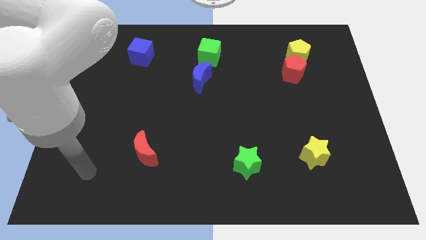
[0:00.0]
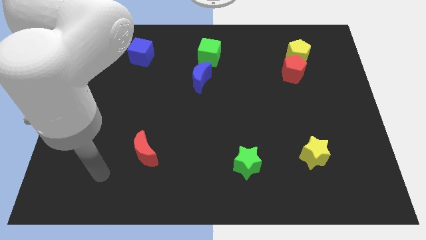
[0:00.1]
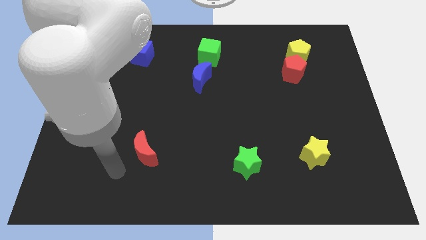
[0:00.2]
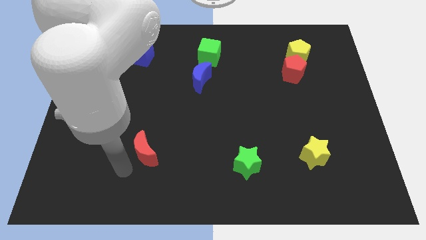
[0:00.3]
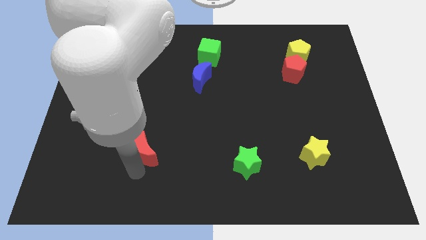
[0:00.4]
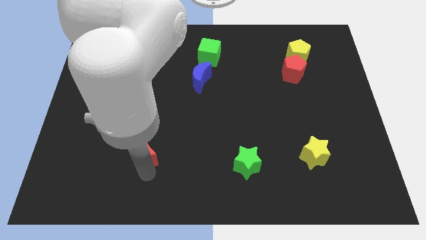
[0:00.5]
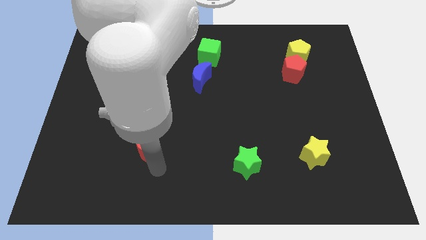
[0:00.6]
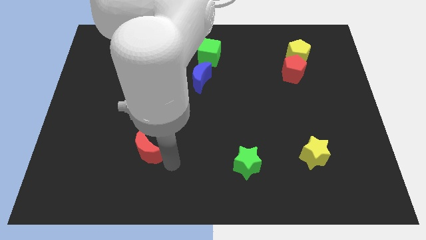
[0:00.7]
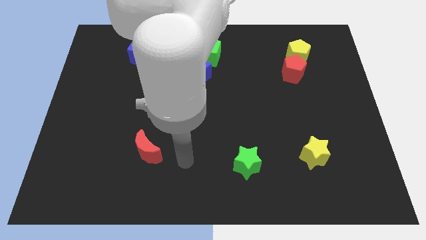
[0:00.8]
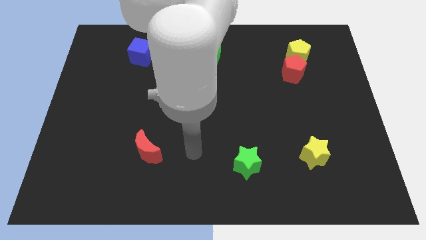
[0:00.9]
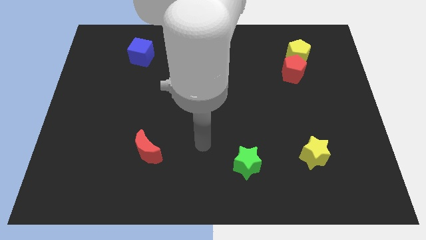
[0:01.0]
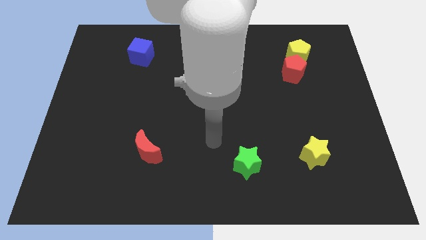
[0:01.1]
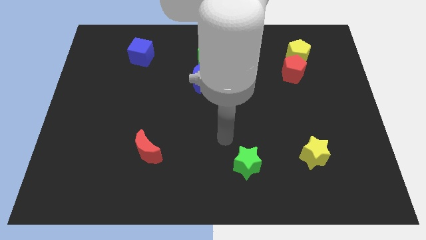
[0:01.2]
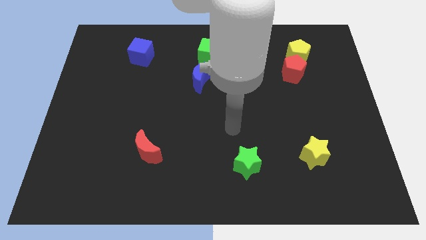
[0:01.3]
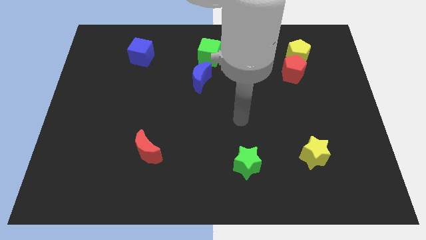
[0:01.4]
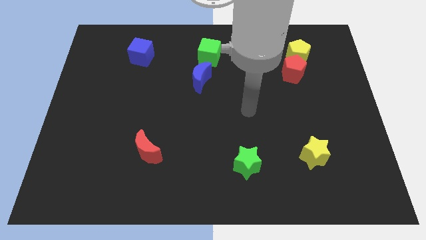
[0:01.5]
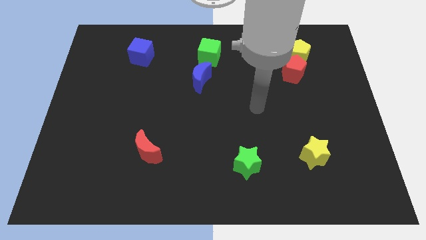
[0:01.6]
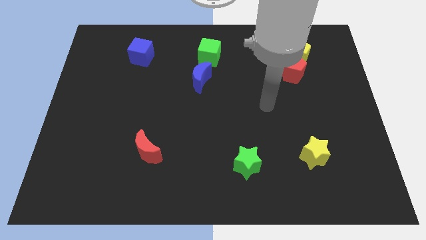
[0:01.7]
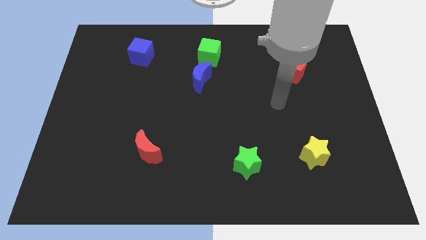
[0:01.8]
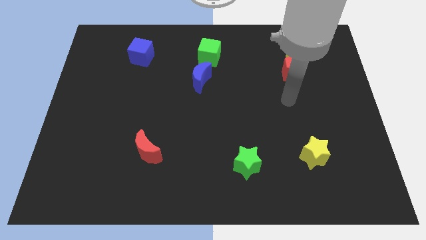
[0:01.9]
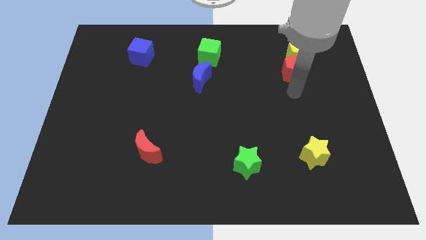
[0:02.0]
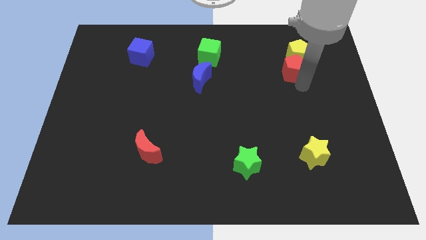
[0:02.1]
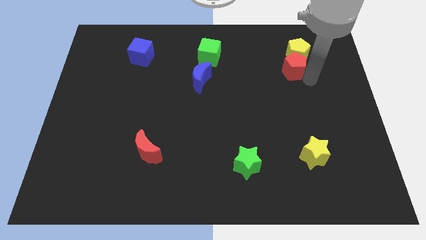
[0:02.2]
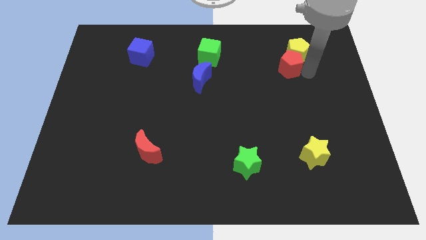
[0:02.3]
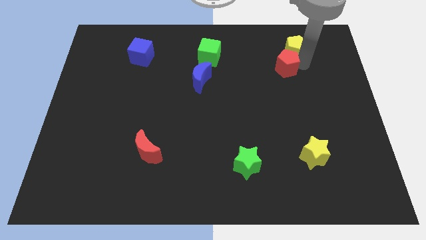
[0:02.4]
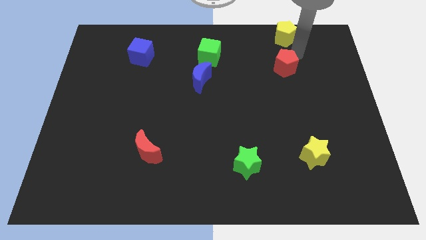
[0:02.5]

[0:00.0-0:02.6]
separate the red pentagon from the yellow pentagon

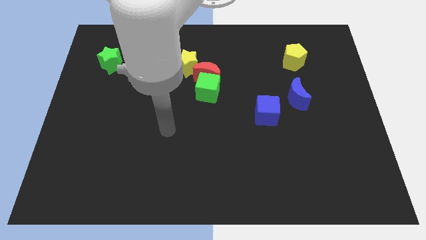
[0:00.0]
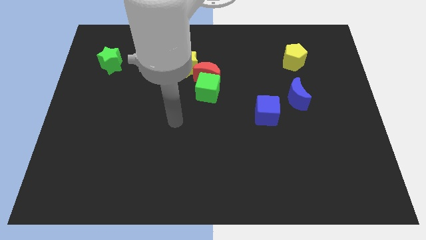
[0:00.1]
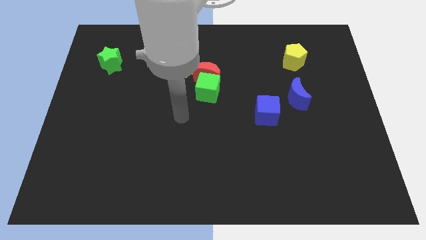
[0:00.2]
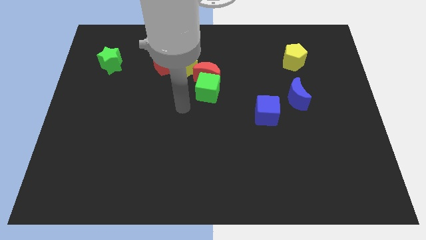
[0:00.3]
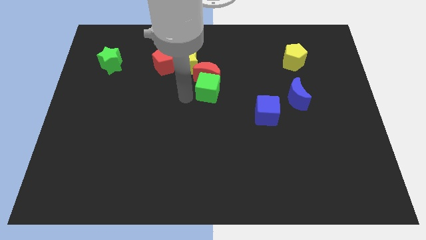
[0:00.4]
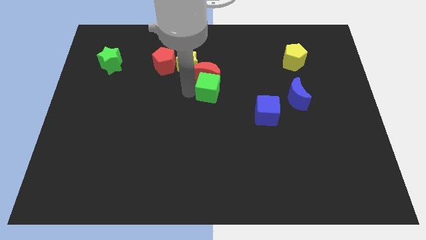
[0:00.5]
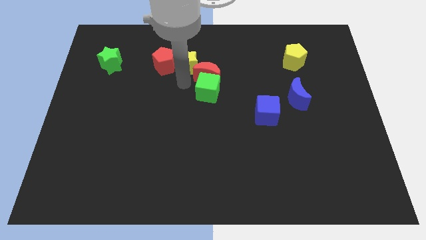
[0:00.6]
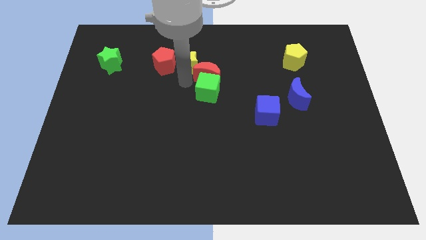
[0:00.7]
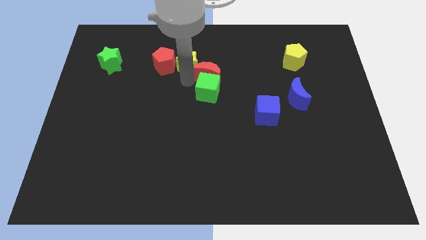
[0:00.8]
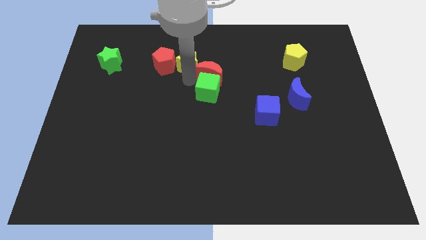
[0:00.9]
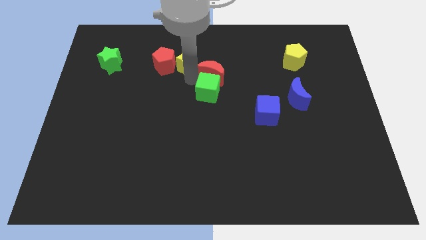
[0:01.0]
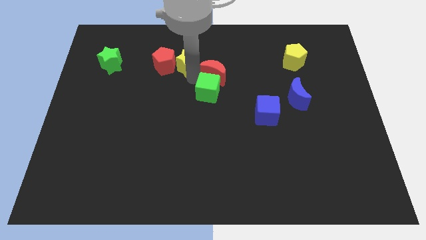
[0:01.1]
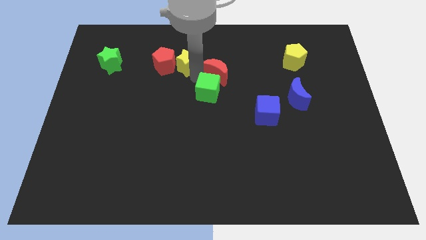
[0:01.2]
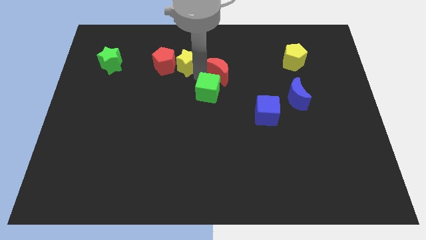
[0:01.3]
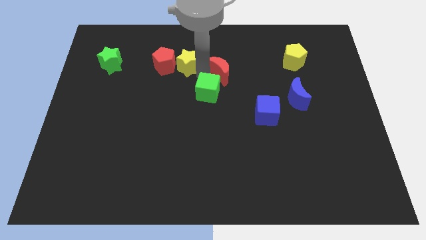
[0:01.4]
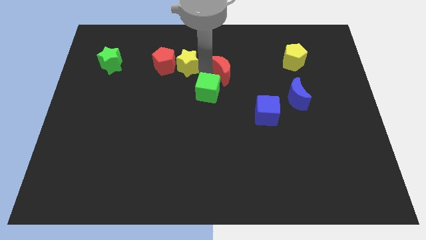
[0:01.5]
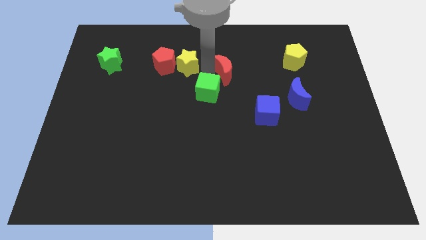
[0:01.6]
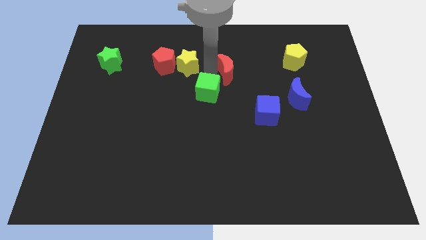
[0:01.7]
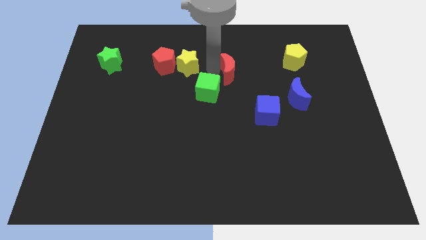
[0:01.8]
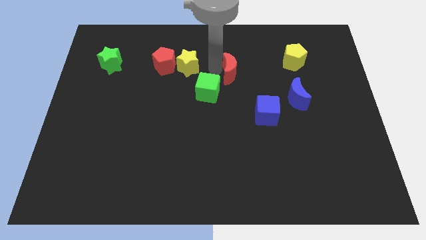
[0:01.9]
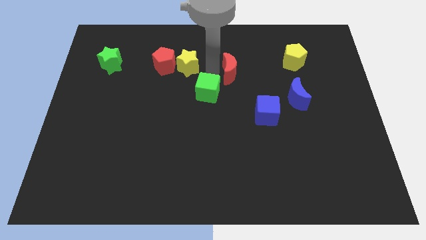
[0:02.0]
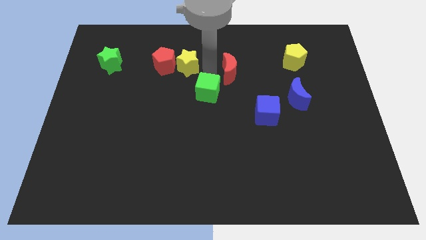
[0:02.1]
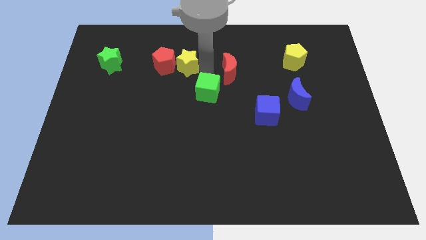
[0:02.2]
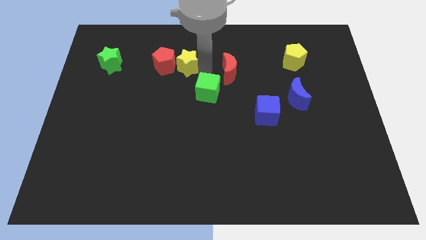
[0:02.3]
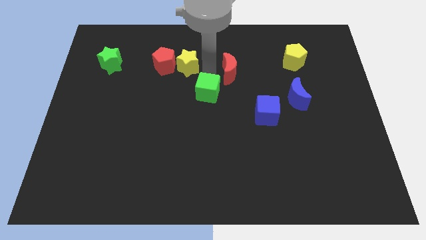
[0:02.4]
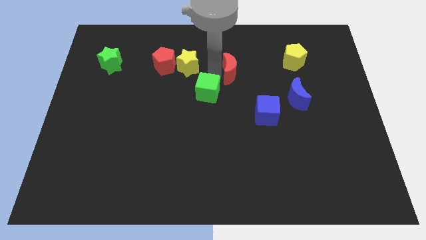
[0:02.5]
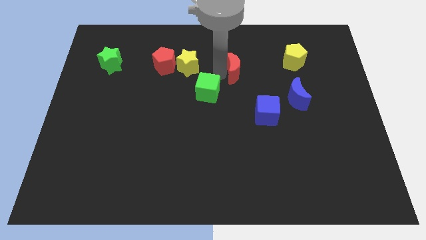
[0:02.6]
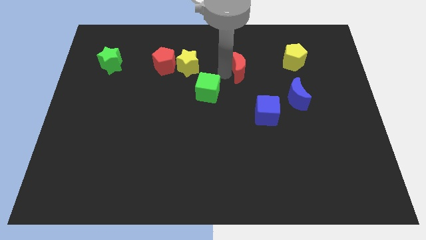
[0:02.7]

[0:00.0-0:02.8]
separate the red moon from the green cube and yellow star

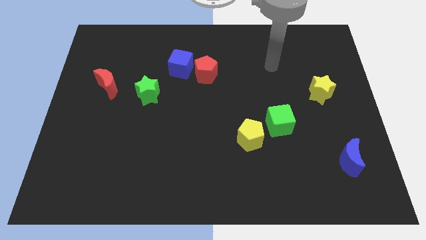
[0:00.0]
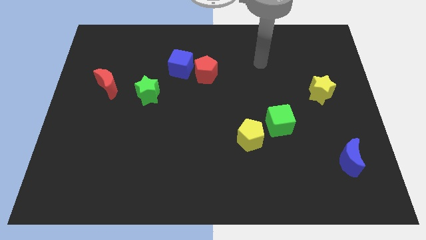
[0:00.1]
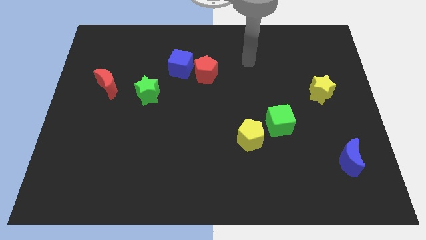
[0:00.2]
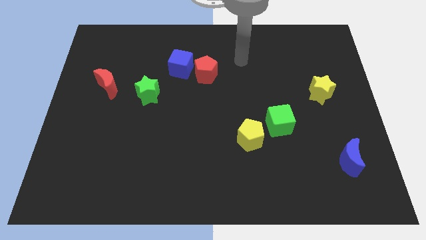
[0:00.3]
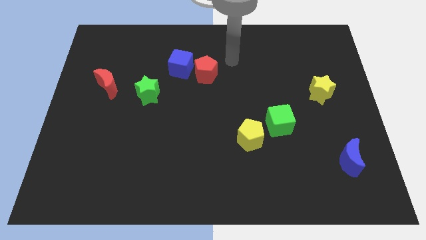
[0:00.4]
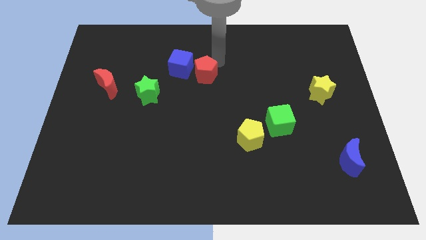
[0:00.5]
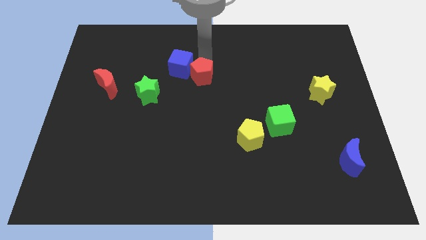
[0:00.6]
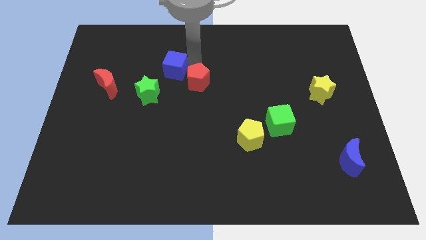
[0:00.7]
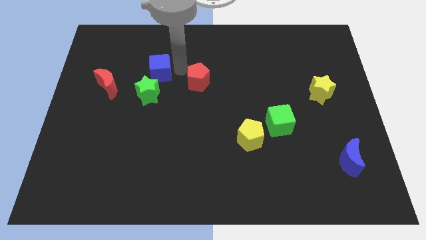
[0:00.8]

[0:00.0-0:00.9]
separate the red pentagon from the blue cube

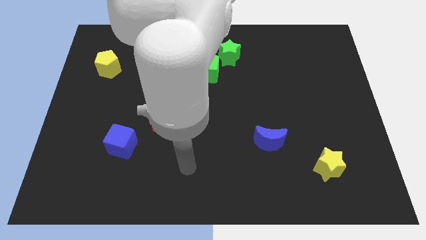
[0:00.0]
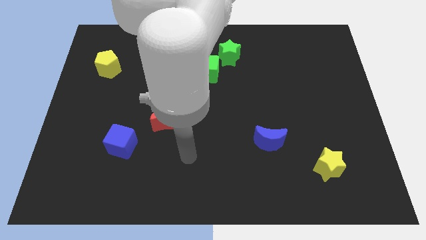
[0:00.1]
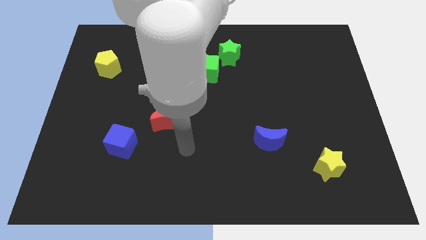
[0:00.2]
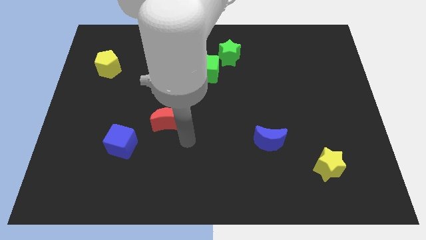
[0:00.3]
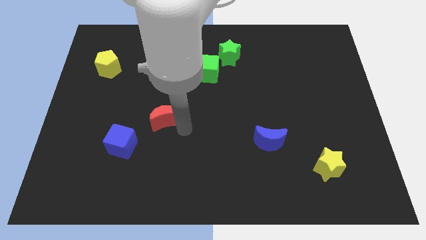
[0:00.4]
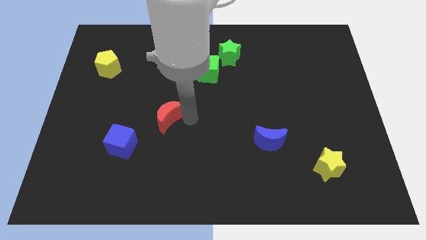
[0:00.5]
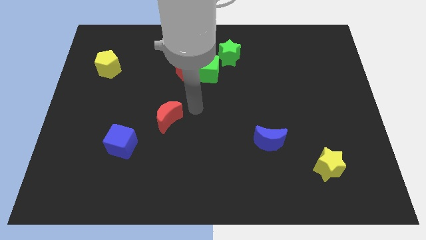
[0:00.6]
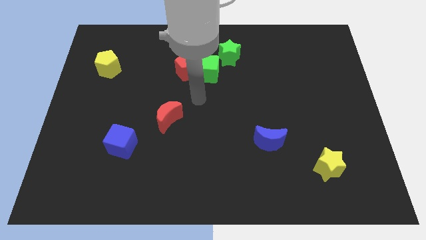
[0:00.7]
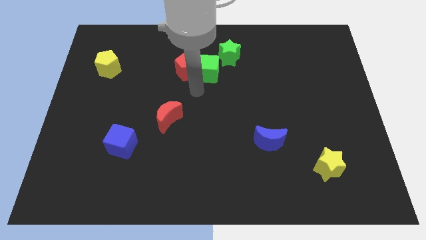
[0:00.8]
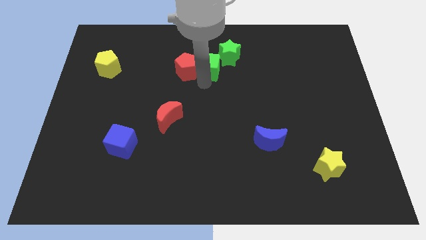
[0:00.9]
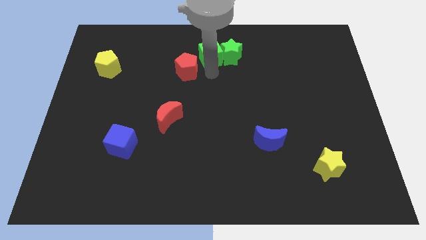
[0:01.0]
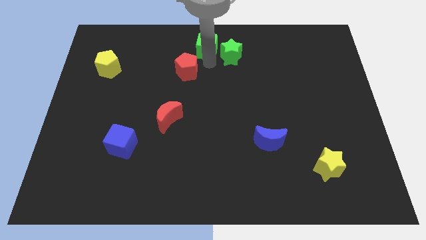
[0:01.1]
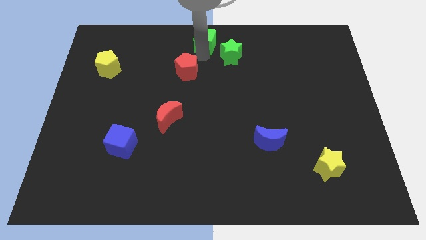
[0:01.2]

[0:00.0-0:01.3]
move the red pentagon away from the green cube

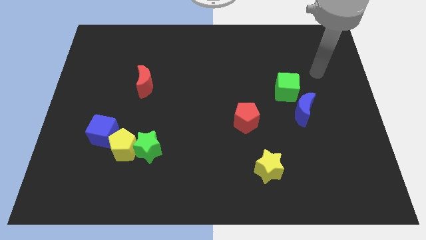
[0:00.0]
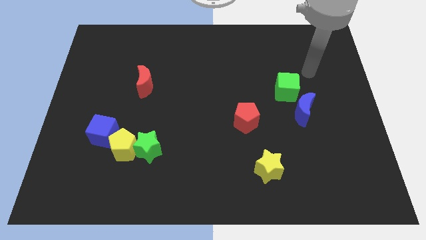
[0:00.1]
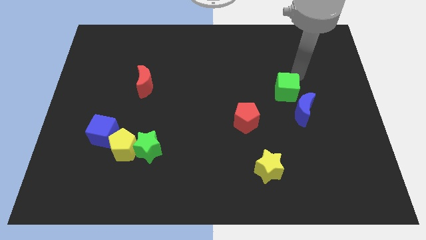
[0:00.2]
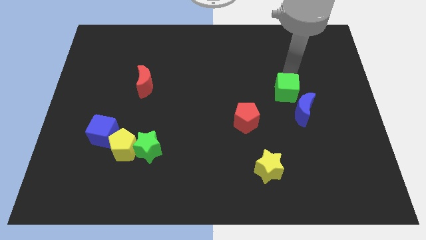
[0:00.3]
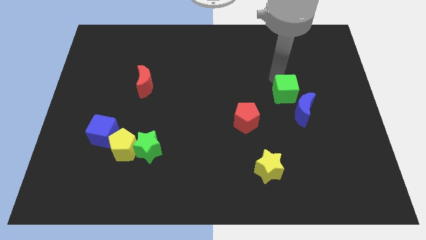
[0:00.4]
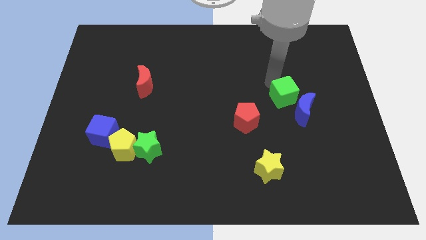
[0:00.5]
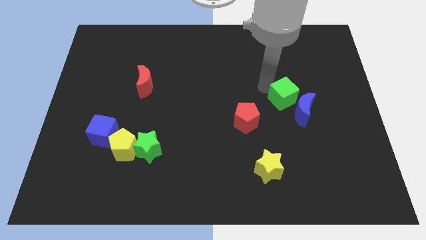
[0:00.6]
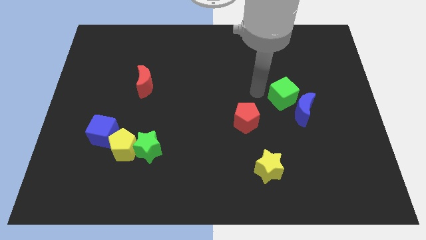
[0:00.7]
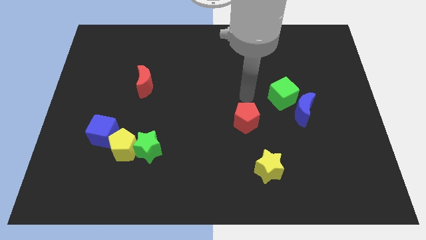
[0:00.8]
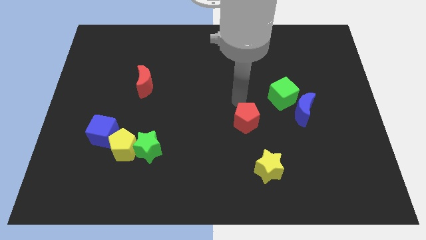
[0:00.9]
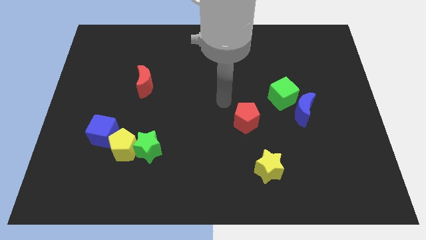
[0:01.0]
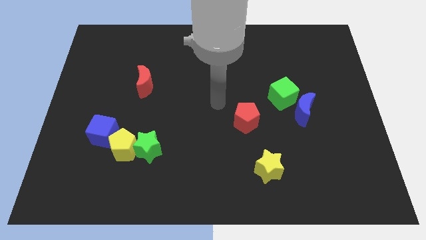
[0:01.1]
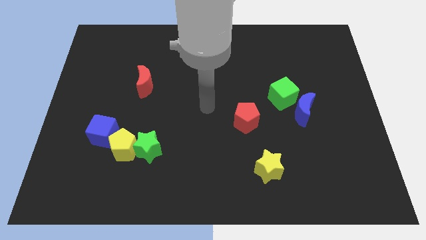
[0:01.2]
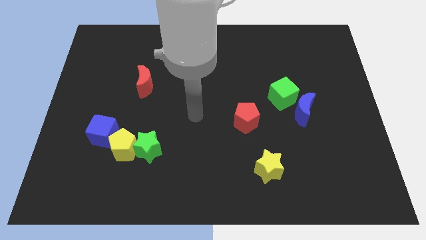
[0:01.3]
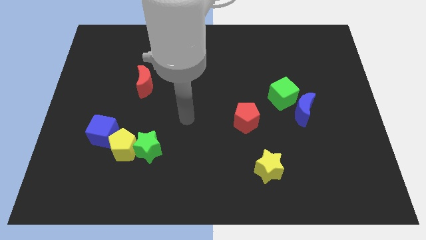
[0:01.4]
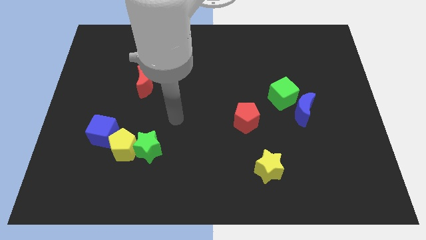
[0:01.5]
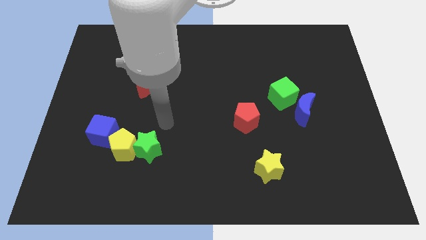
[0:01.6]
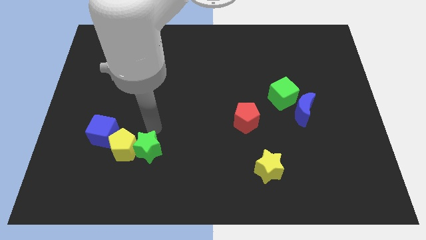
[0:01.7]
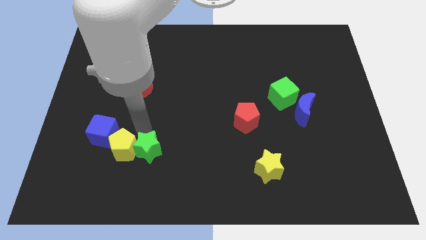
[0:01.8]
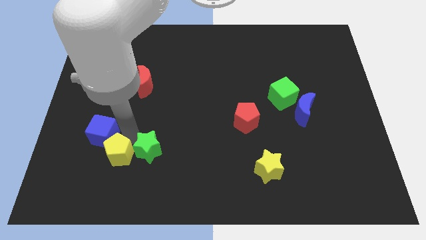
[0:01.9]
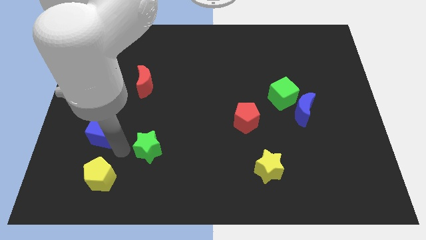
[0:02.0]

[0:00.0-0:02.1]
separate the green star from the yellow pentagon
